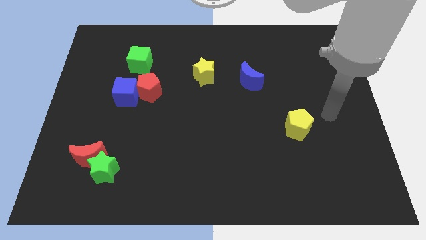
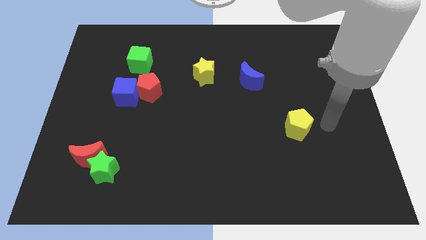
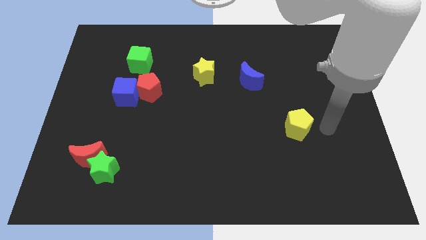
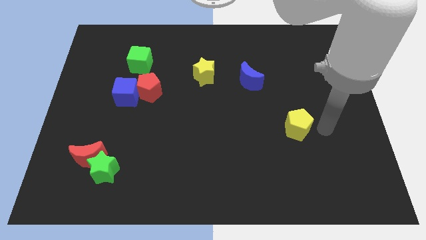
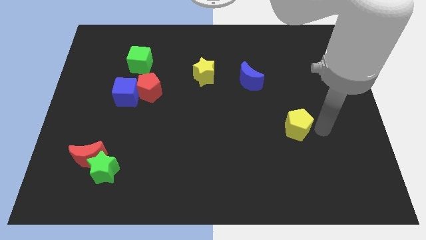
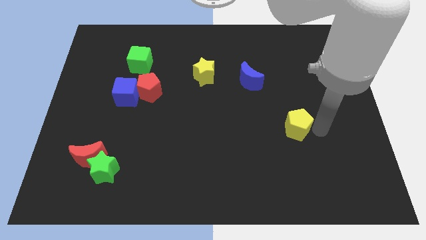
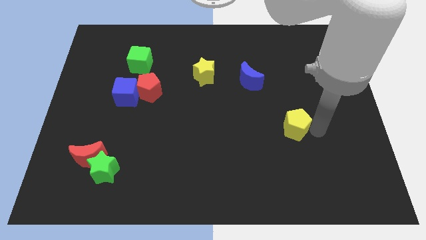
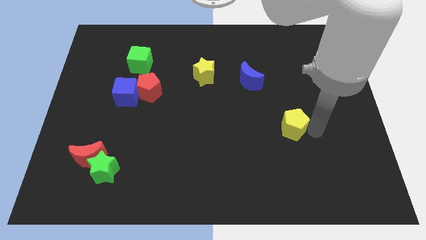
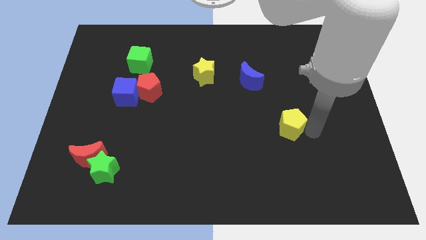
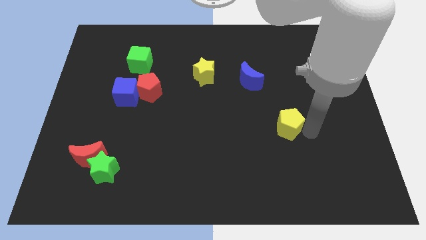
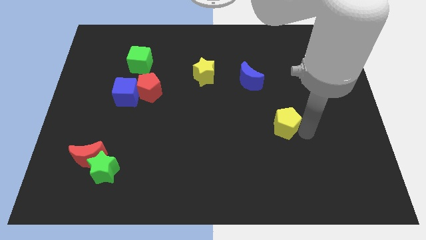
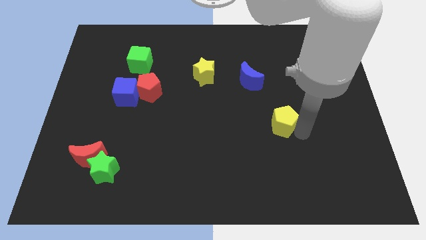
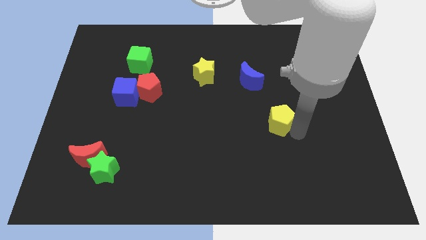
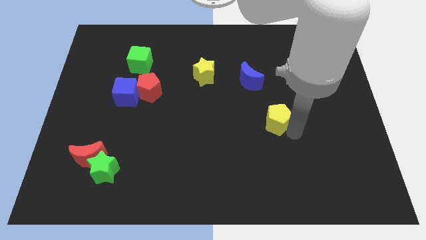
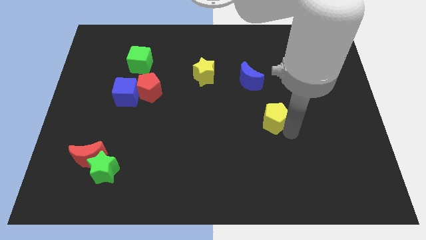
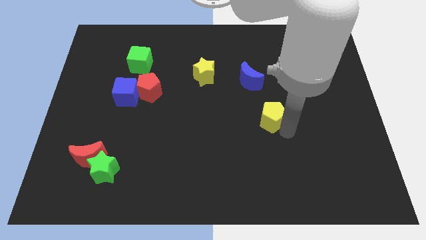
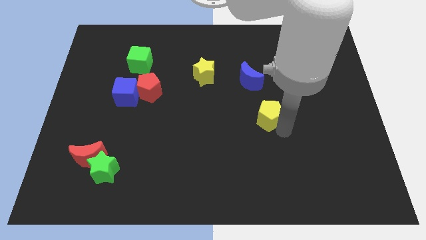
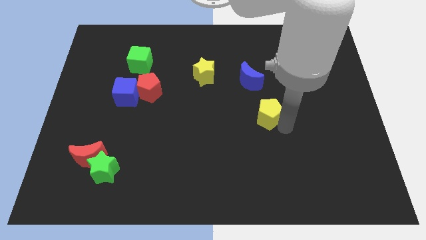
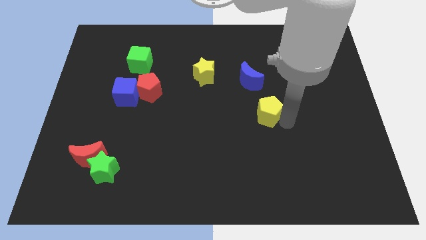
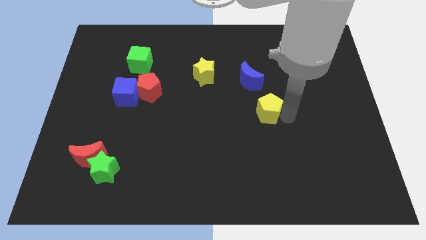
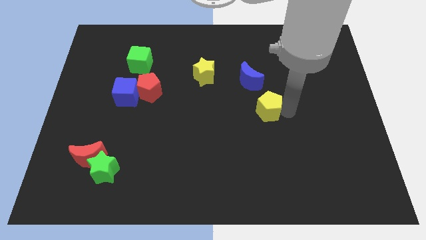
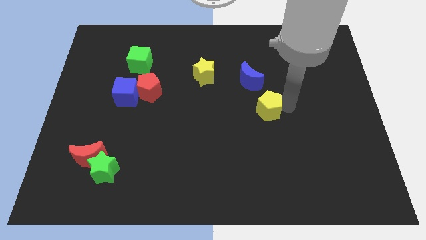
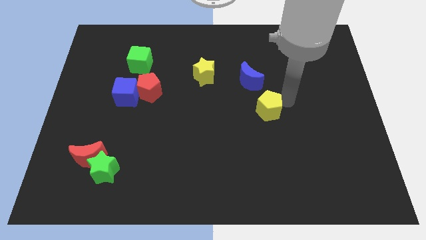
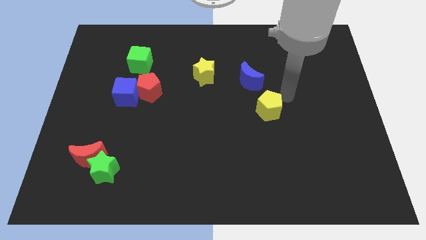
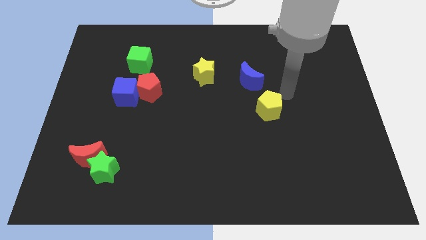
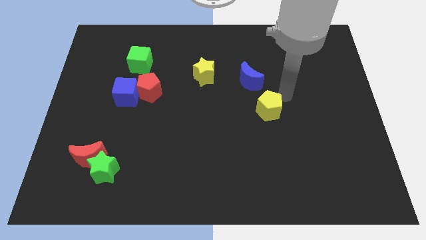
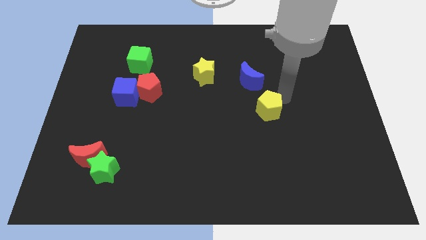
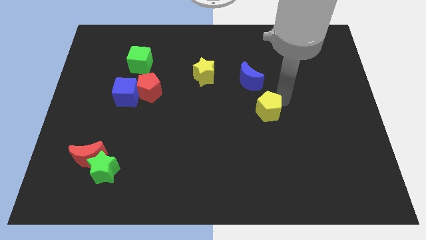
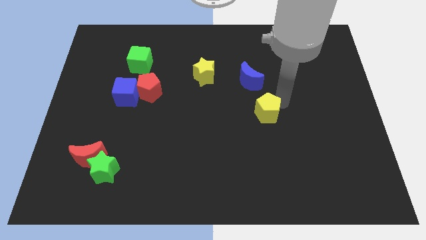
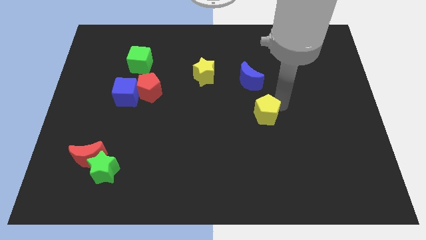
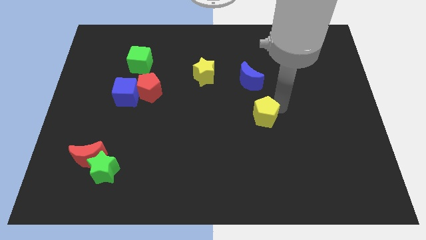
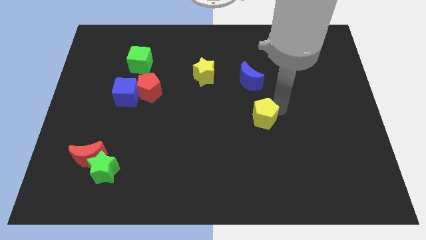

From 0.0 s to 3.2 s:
slide the yellow pentagon left somewhat

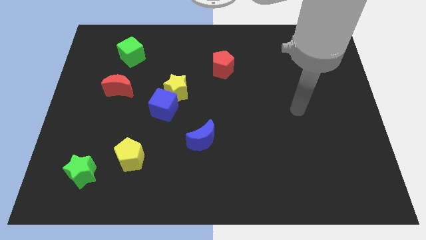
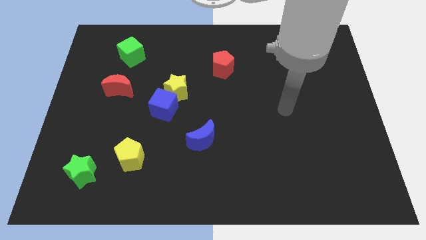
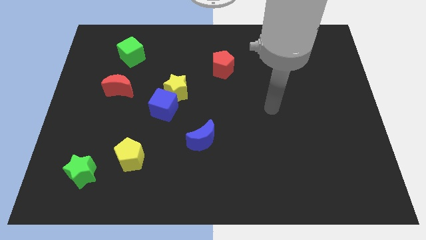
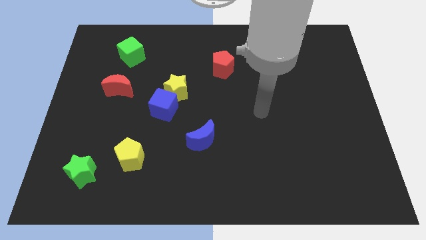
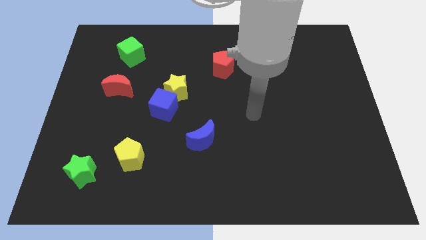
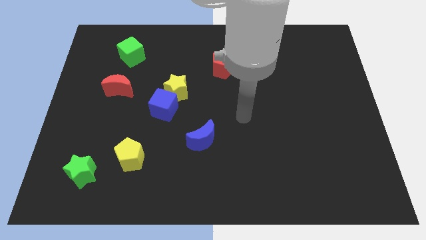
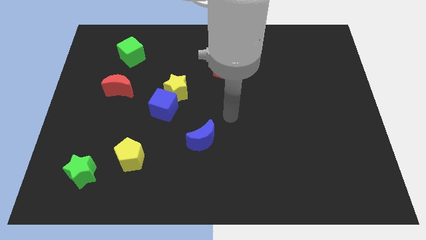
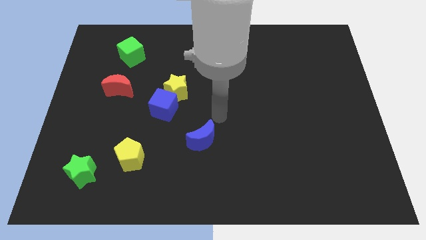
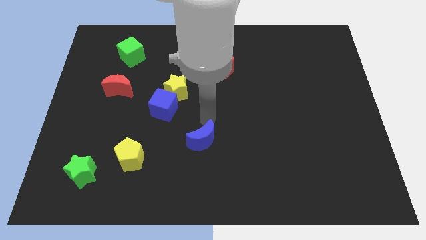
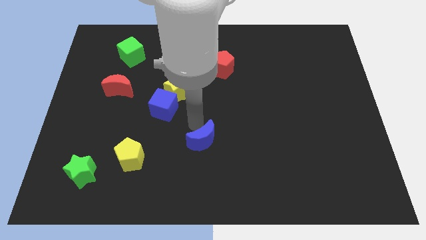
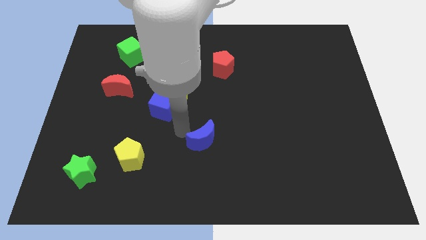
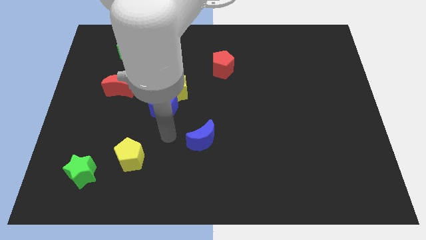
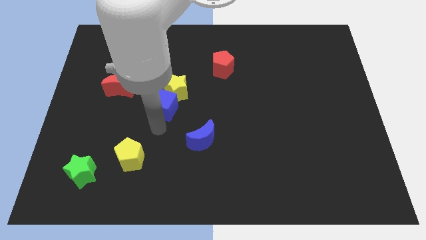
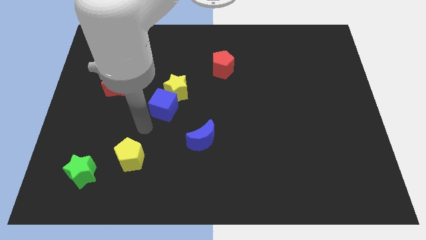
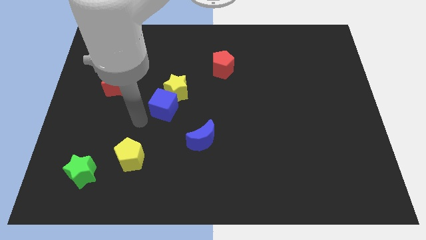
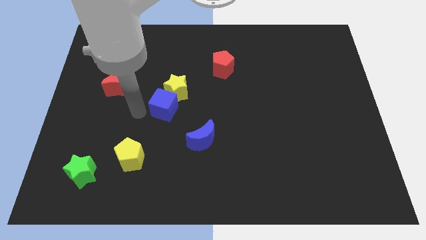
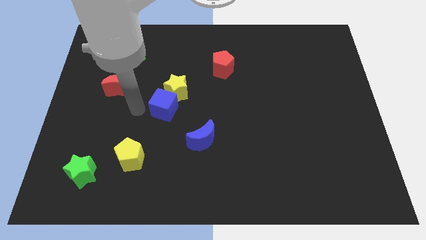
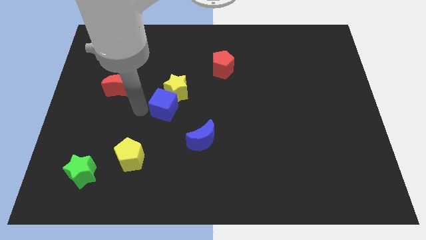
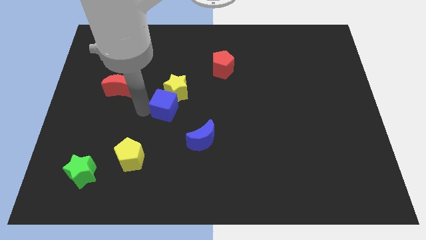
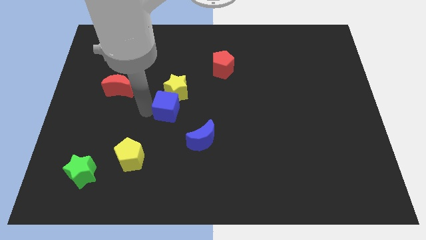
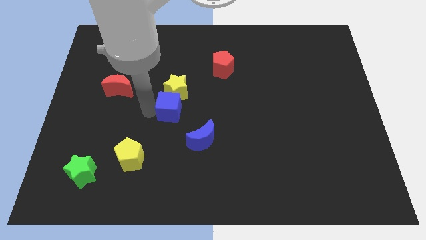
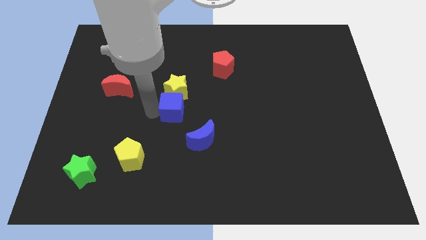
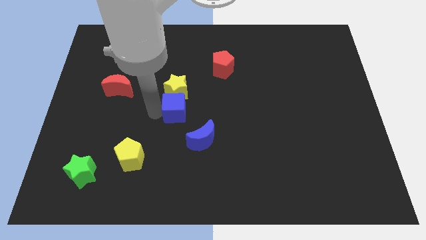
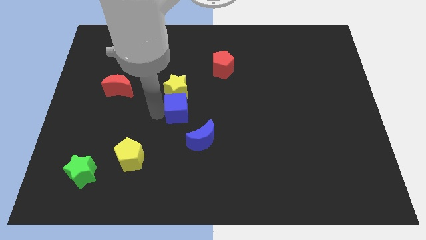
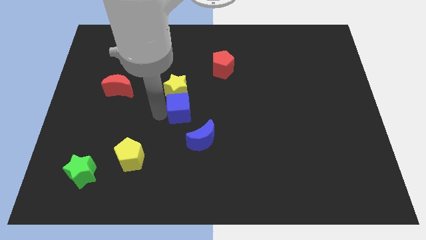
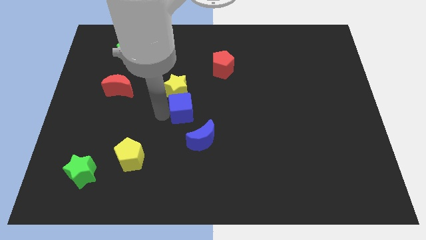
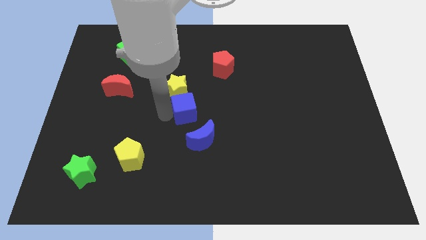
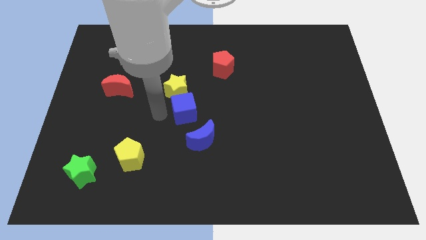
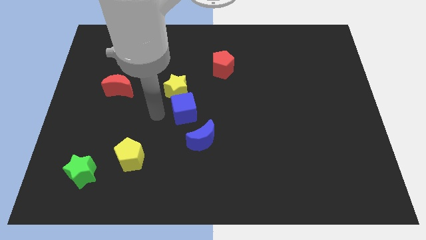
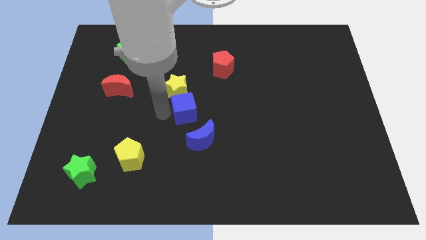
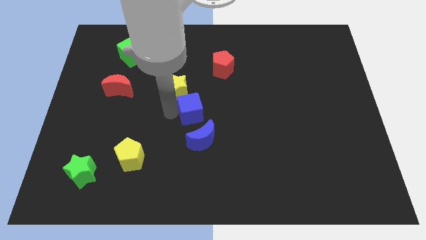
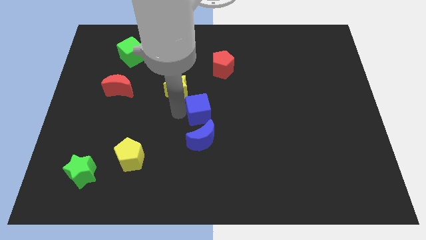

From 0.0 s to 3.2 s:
push the blue cube right slightly

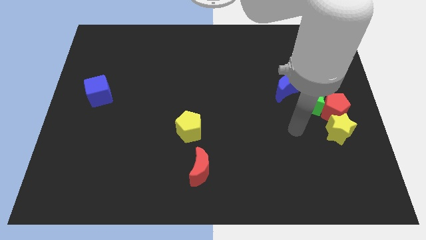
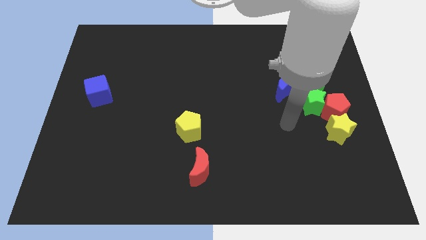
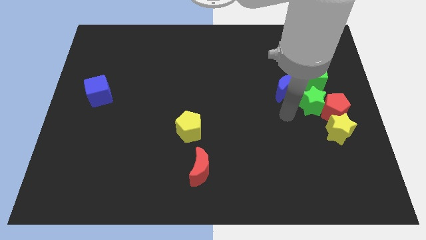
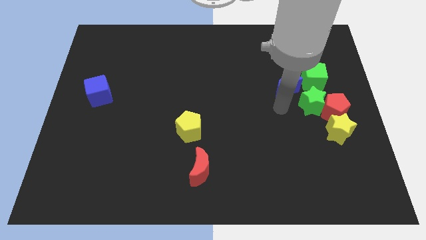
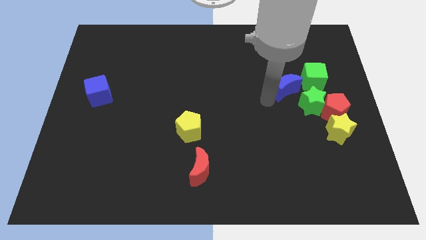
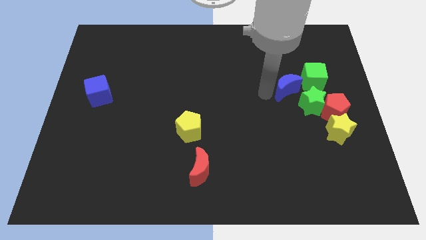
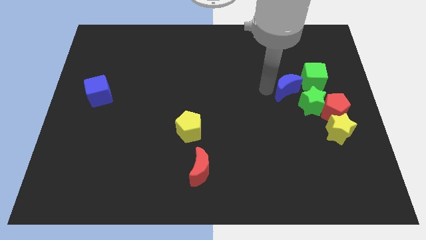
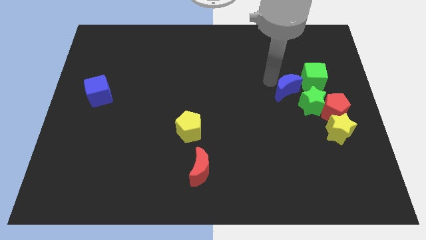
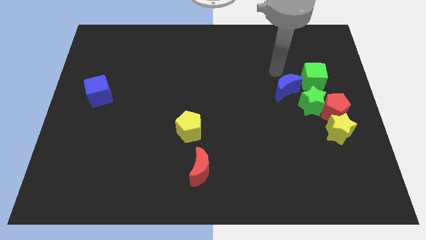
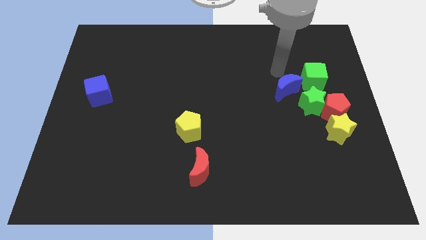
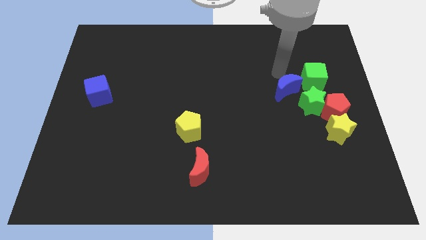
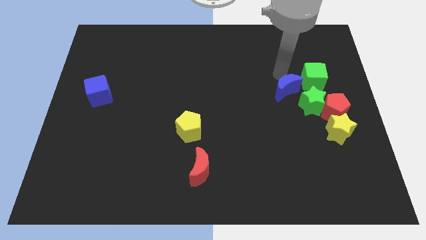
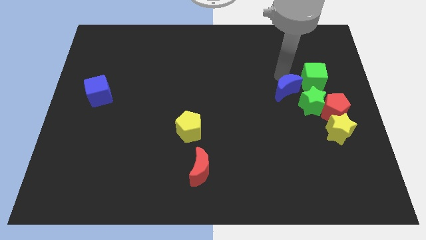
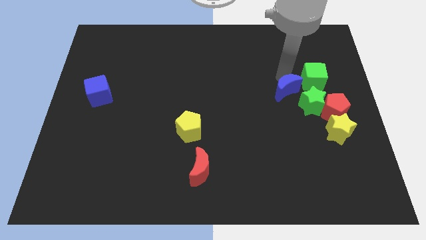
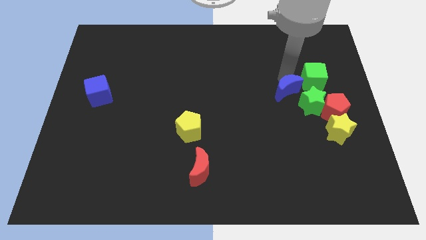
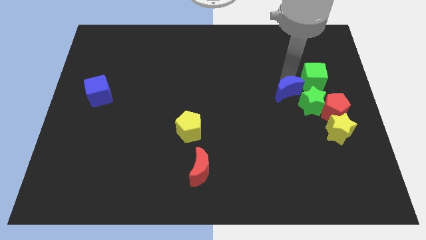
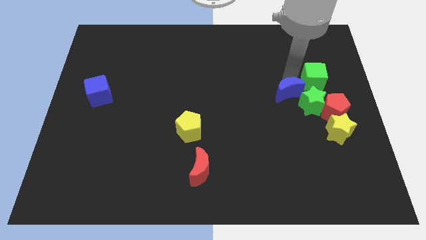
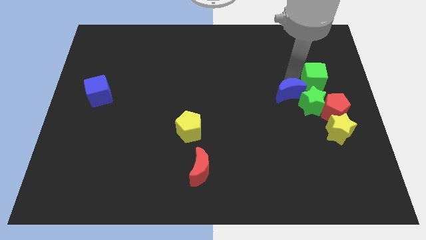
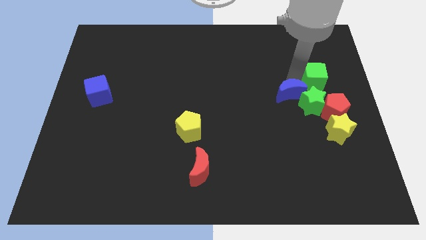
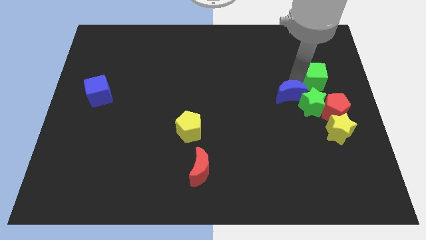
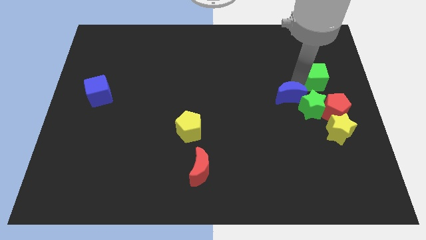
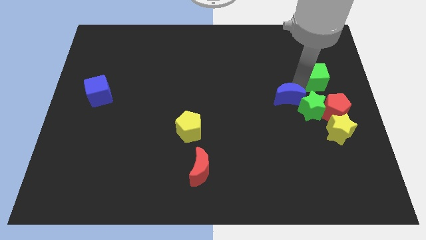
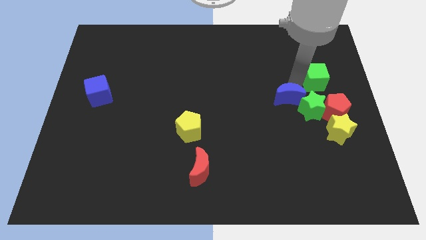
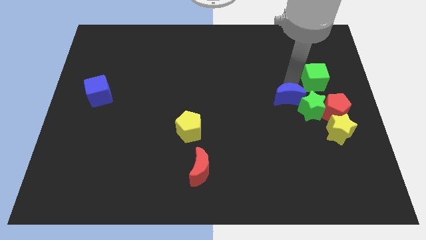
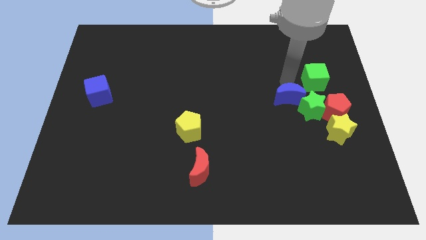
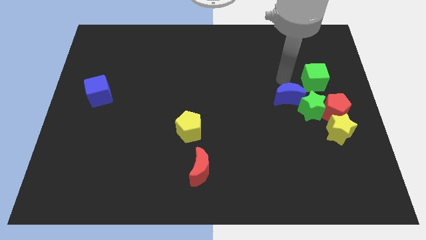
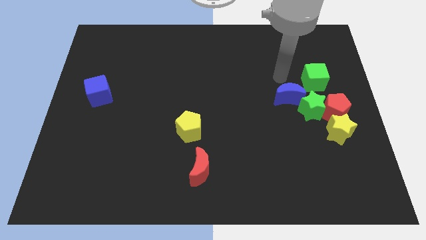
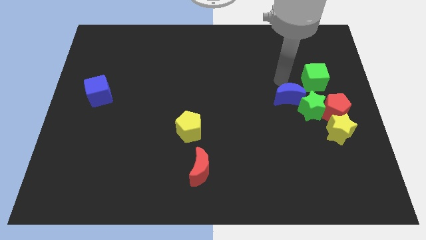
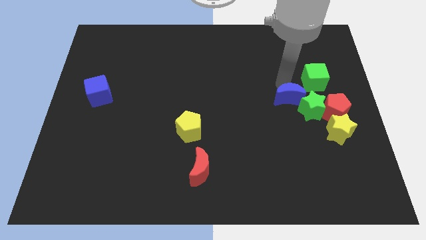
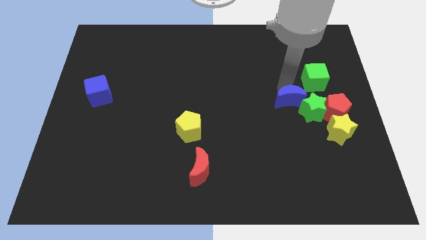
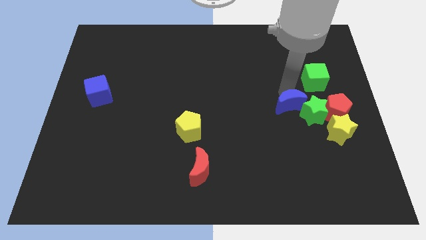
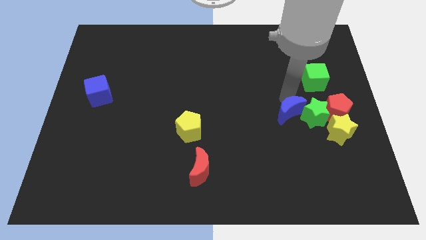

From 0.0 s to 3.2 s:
slide the blue moon down a bit
